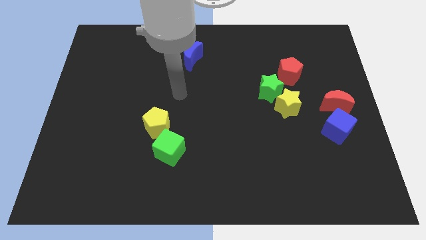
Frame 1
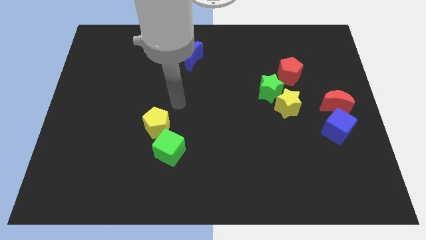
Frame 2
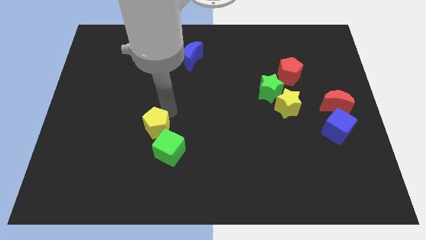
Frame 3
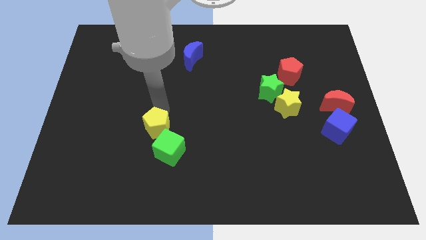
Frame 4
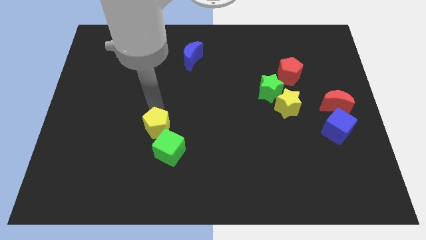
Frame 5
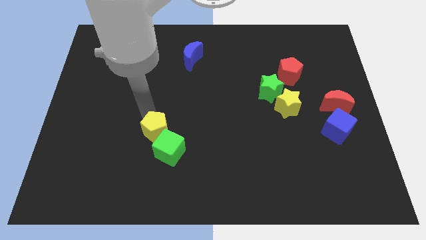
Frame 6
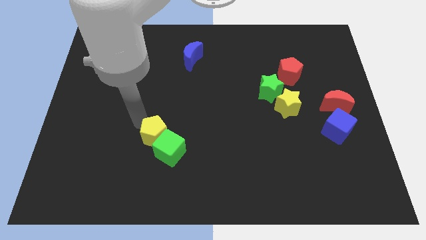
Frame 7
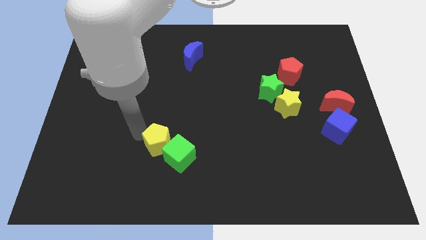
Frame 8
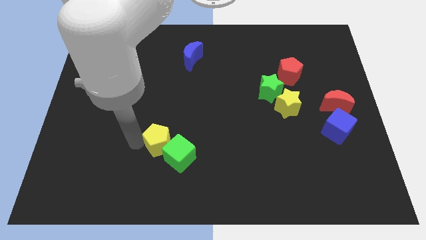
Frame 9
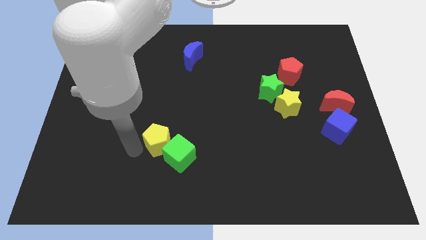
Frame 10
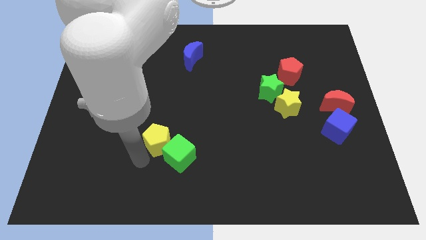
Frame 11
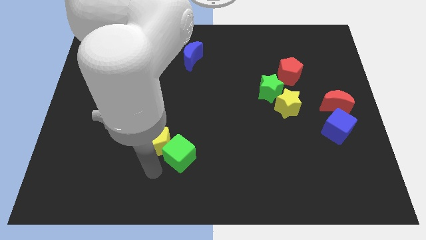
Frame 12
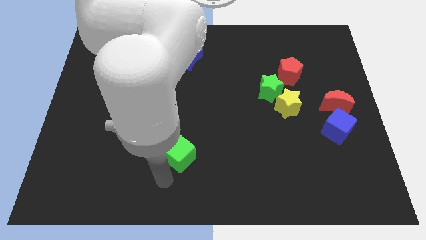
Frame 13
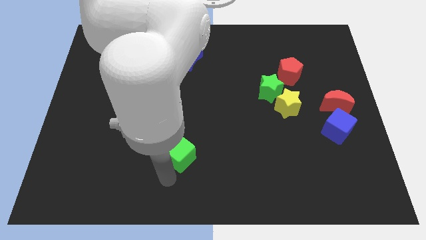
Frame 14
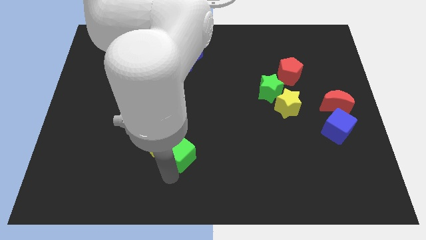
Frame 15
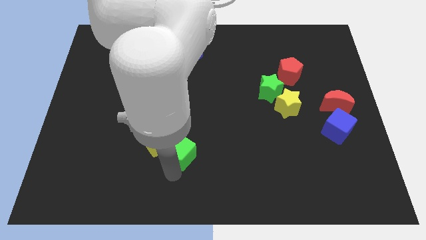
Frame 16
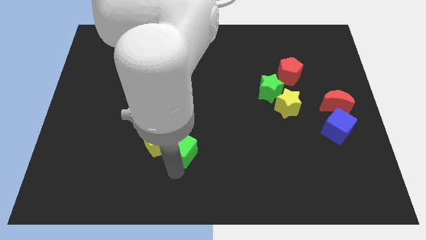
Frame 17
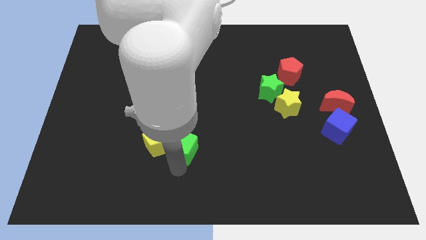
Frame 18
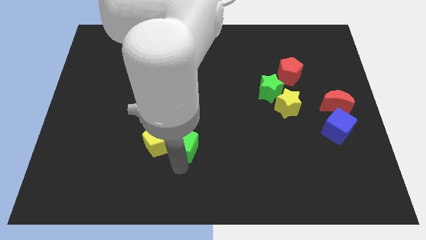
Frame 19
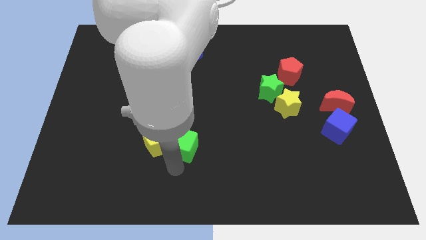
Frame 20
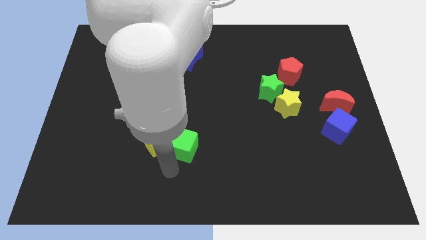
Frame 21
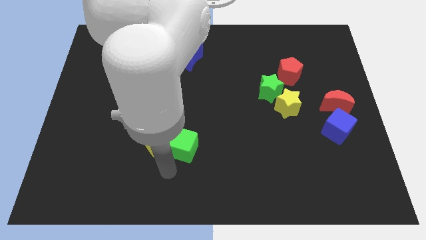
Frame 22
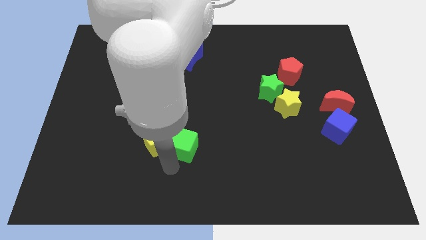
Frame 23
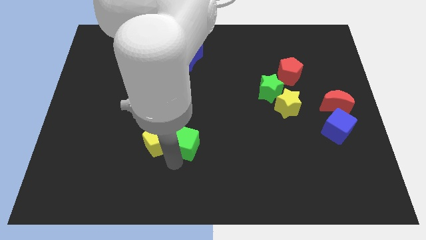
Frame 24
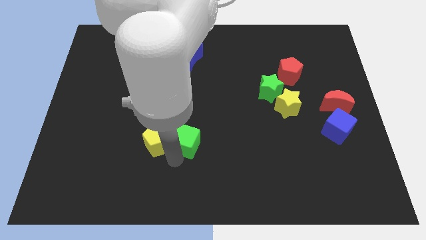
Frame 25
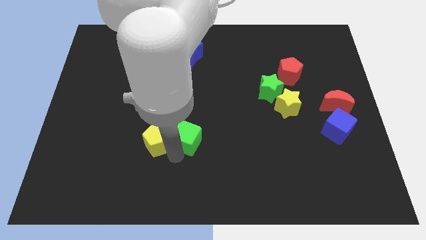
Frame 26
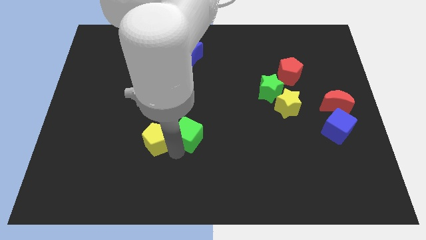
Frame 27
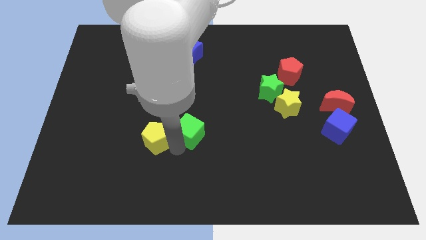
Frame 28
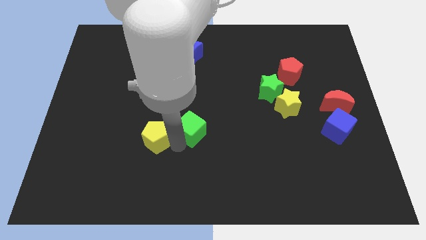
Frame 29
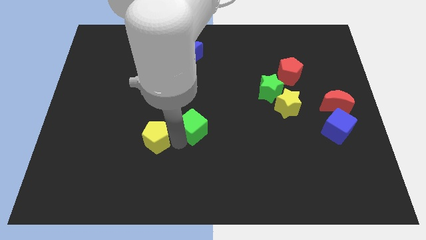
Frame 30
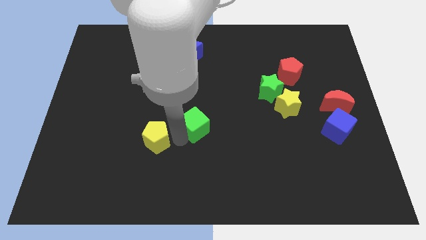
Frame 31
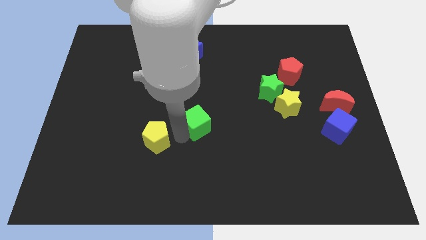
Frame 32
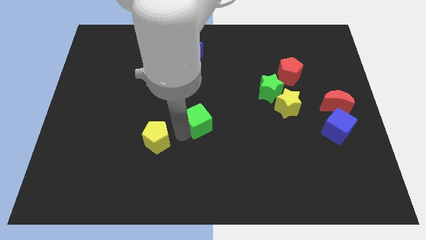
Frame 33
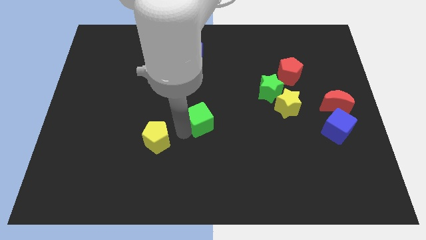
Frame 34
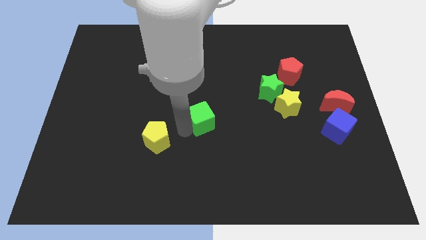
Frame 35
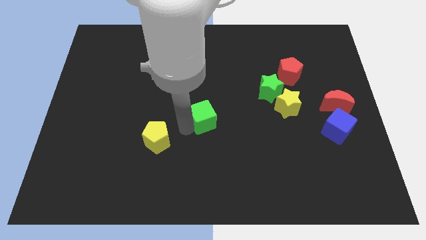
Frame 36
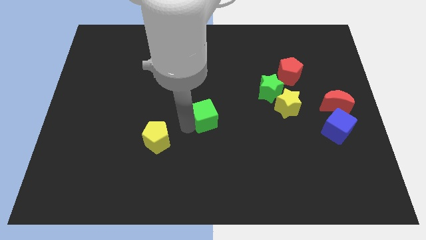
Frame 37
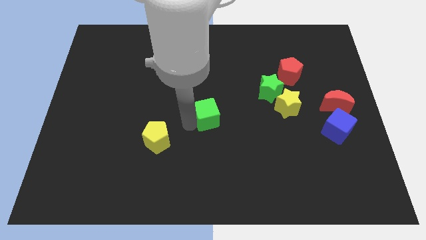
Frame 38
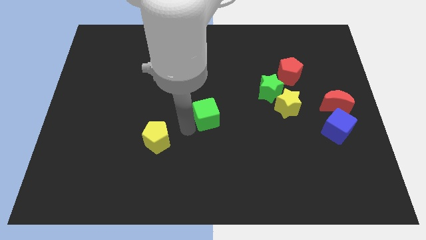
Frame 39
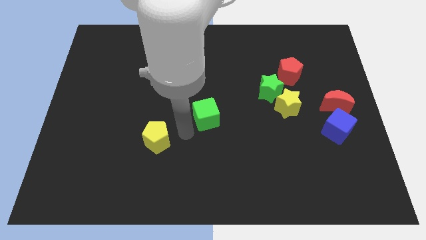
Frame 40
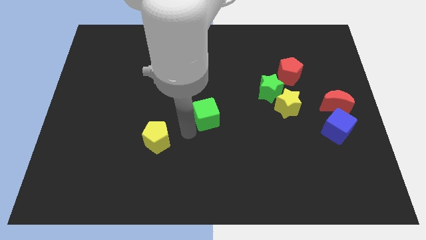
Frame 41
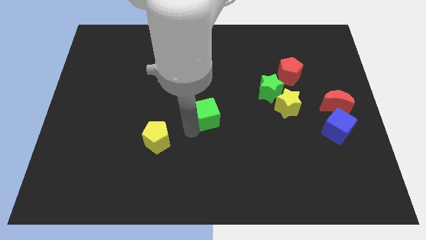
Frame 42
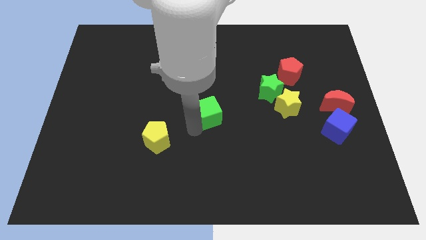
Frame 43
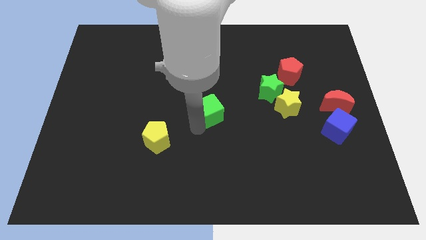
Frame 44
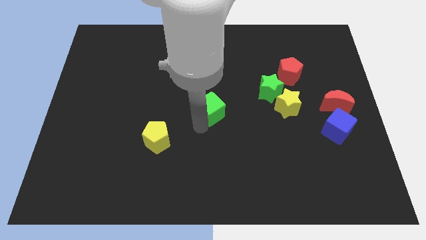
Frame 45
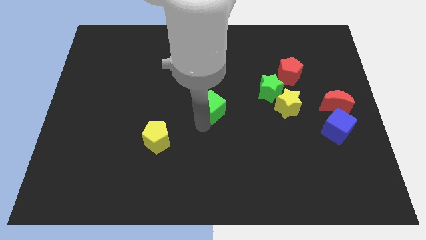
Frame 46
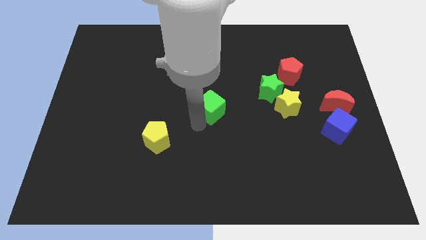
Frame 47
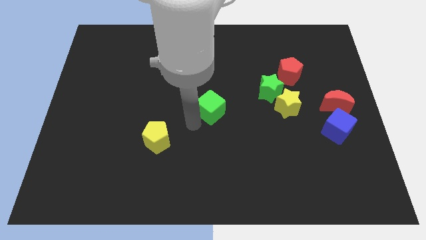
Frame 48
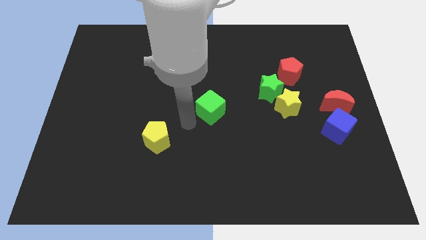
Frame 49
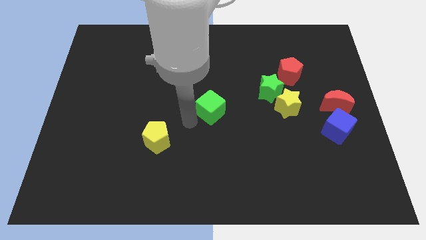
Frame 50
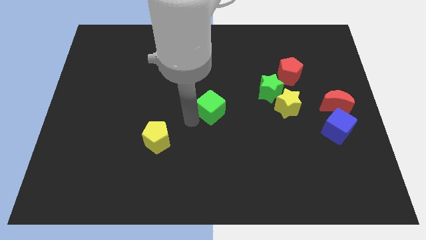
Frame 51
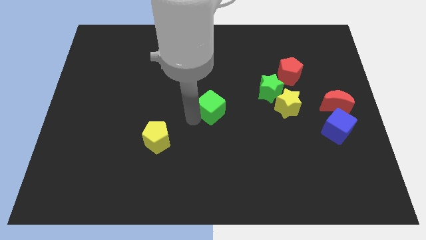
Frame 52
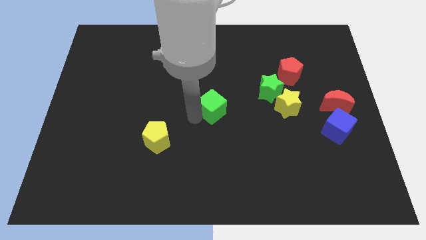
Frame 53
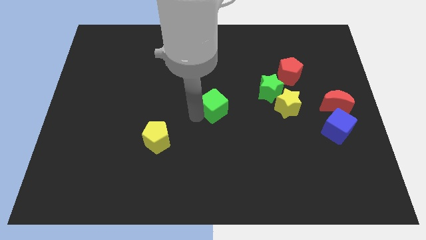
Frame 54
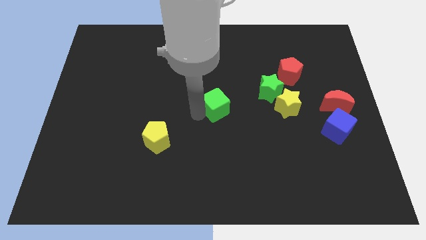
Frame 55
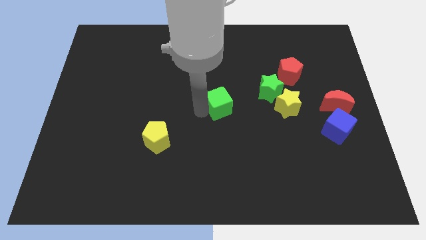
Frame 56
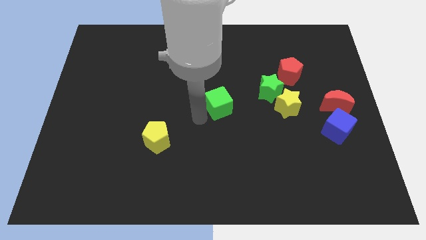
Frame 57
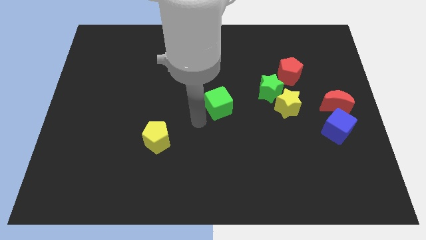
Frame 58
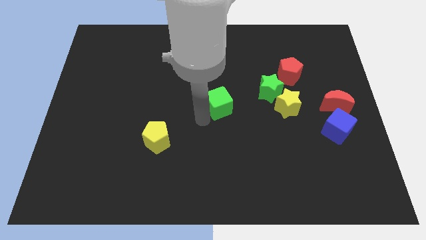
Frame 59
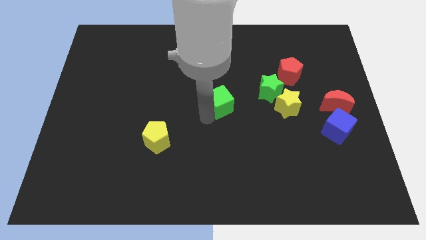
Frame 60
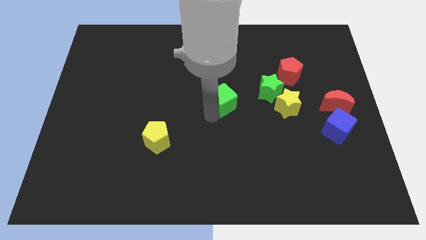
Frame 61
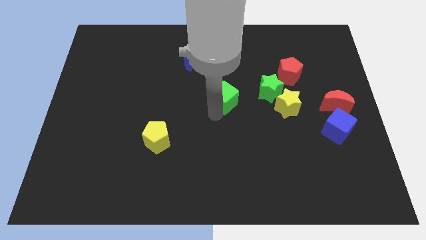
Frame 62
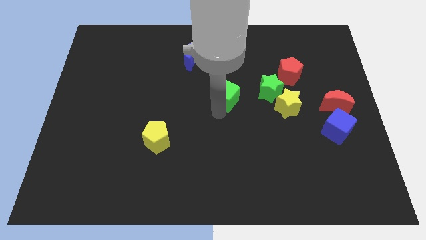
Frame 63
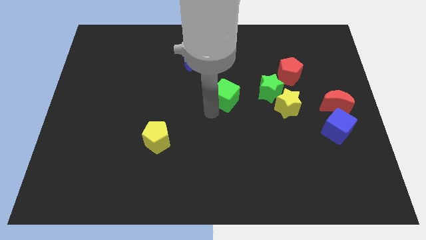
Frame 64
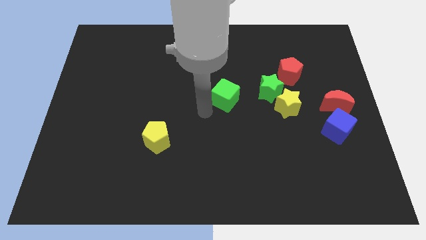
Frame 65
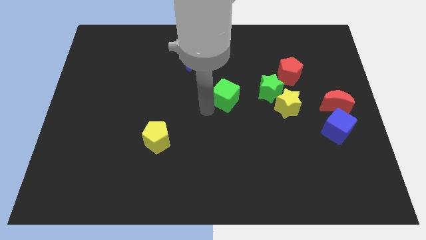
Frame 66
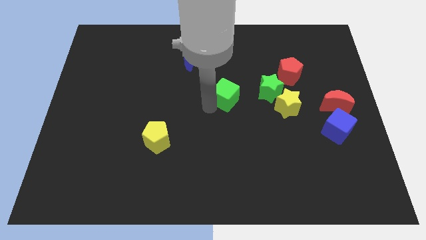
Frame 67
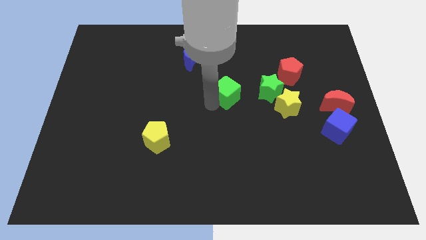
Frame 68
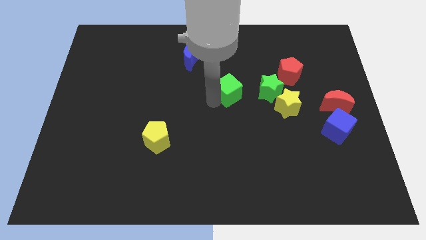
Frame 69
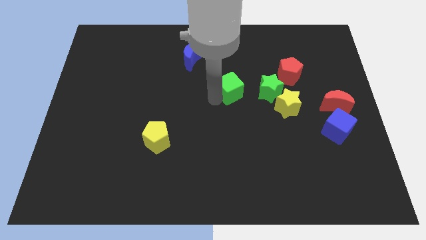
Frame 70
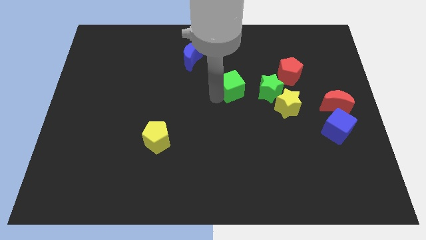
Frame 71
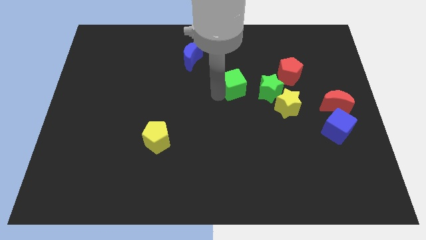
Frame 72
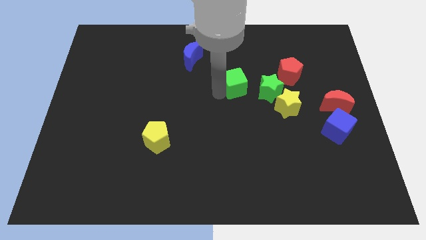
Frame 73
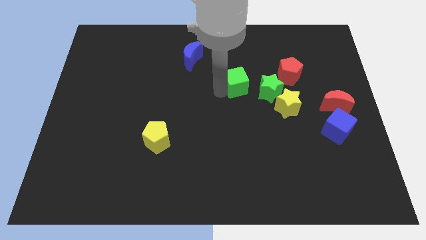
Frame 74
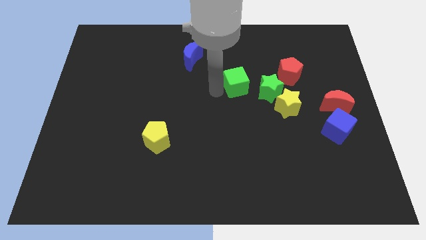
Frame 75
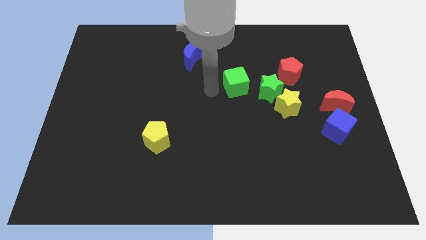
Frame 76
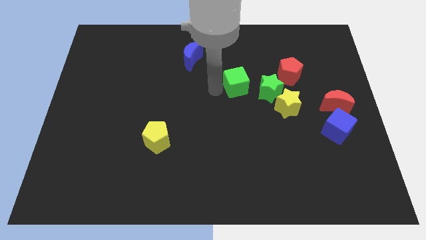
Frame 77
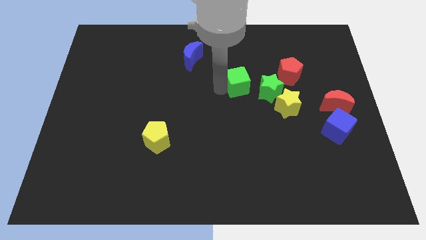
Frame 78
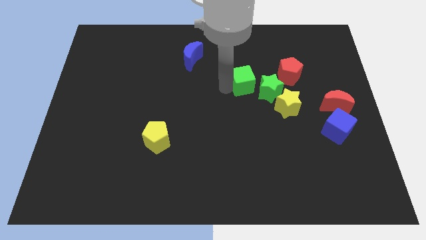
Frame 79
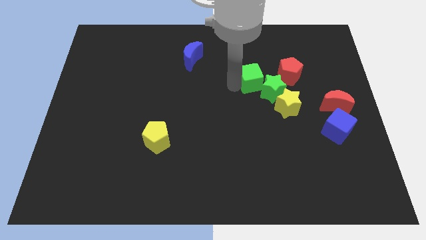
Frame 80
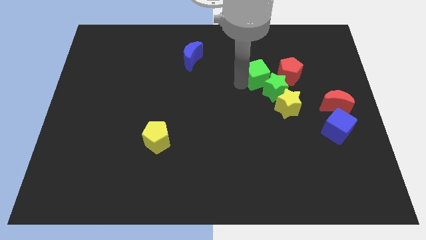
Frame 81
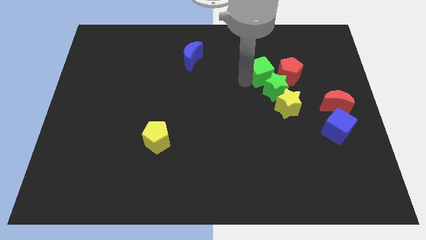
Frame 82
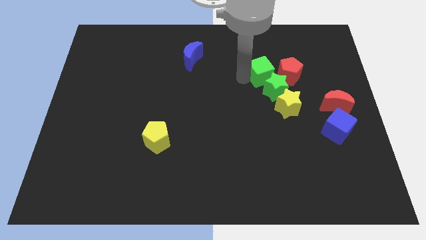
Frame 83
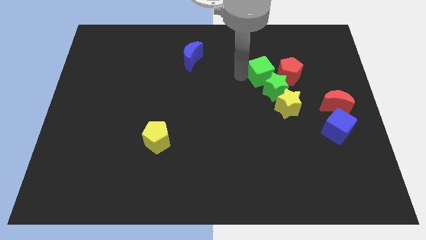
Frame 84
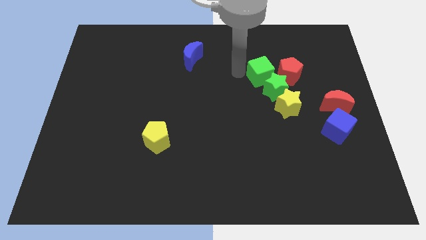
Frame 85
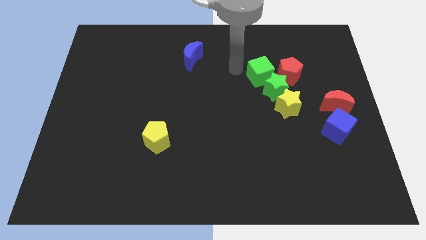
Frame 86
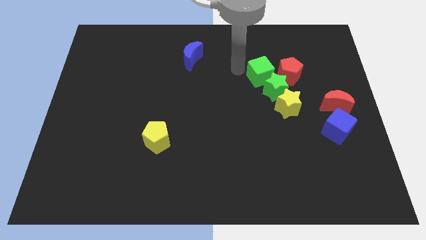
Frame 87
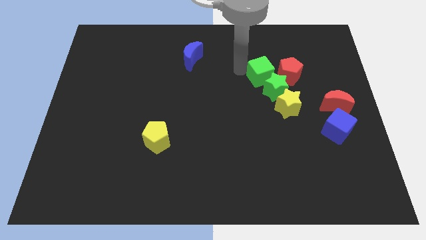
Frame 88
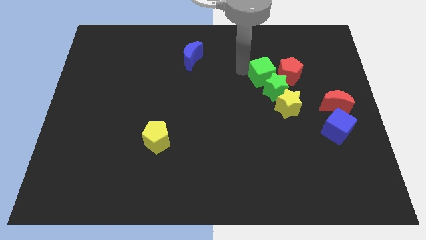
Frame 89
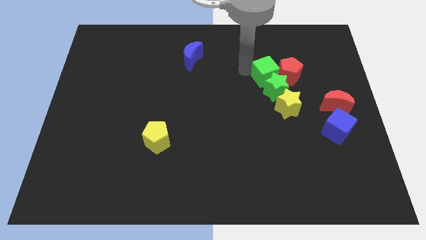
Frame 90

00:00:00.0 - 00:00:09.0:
push the green cube towards the red pentagon
